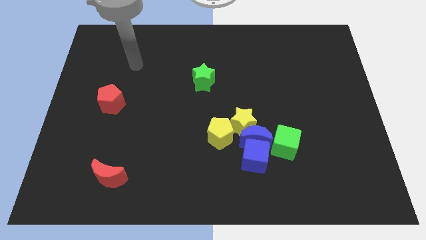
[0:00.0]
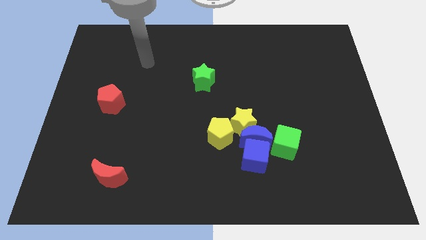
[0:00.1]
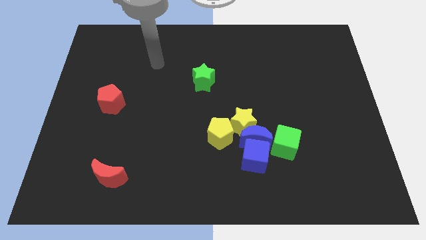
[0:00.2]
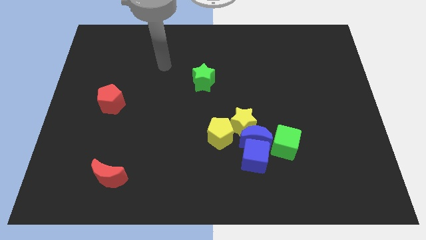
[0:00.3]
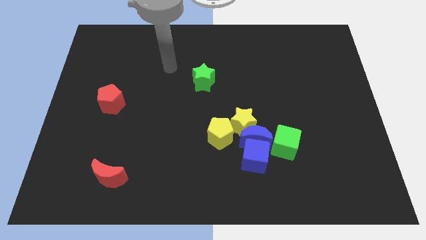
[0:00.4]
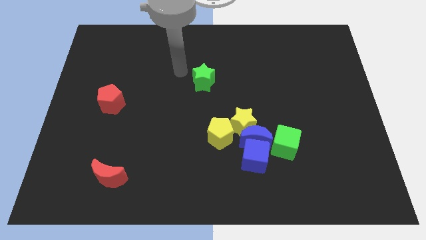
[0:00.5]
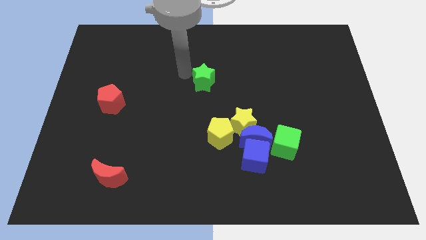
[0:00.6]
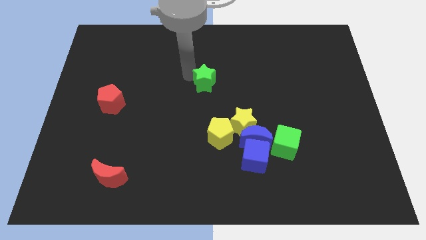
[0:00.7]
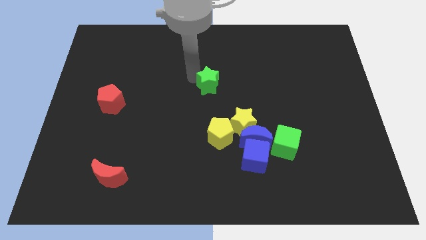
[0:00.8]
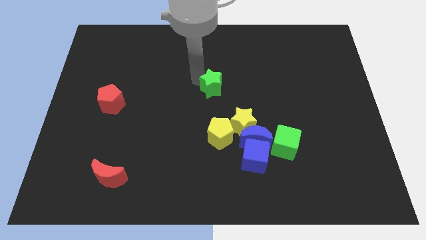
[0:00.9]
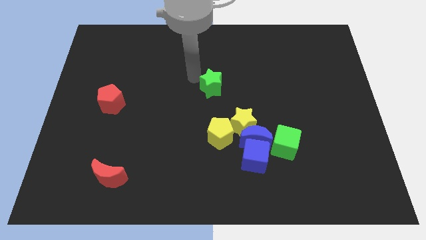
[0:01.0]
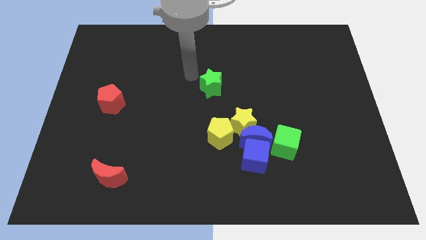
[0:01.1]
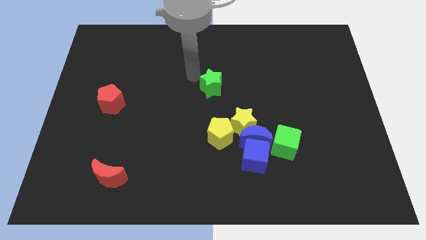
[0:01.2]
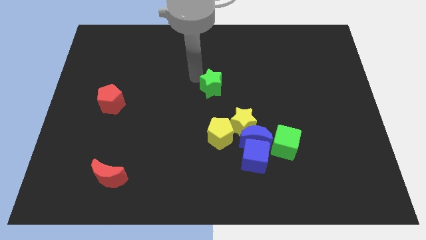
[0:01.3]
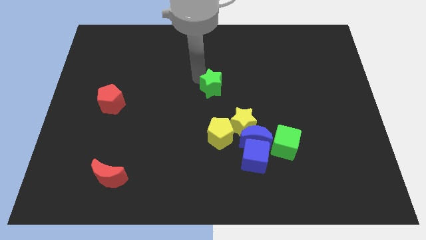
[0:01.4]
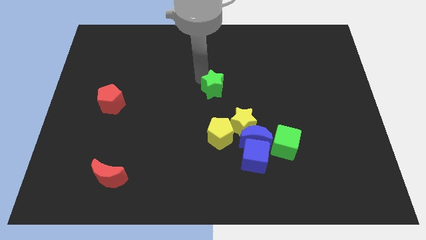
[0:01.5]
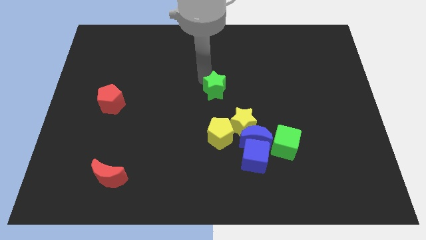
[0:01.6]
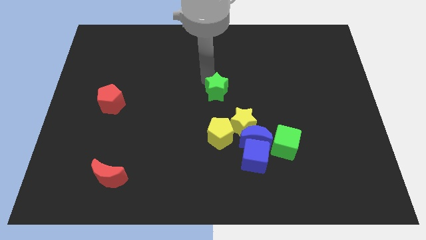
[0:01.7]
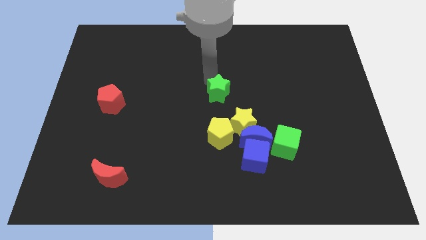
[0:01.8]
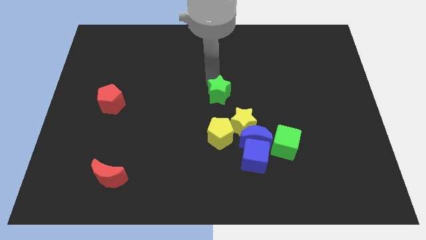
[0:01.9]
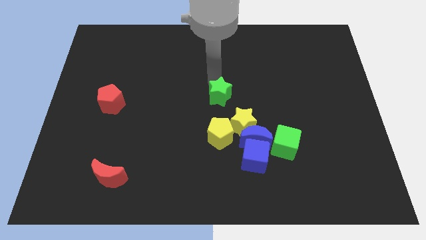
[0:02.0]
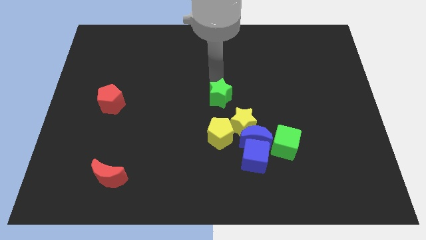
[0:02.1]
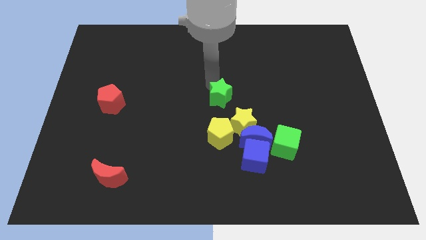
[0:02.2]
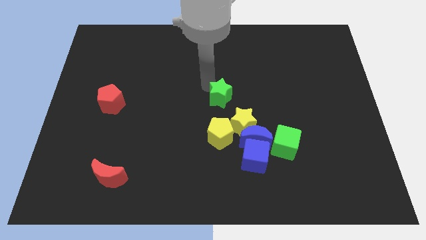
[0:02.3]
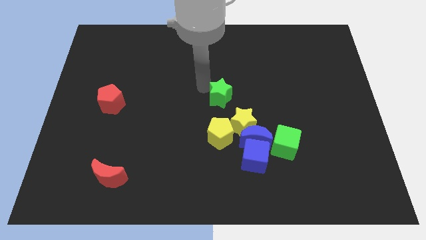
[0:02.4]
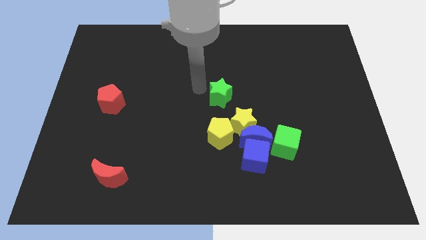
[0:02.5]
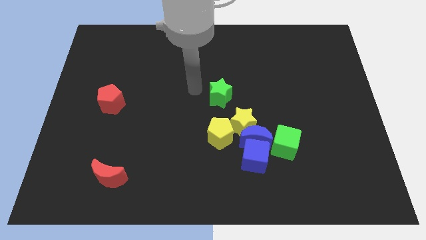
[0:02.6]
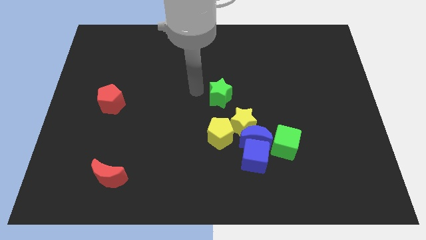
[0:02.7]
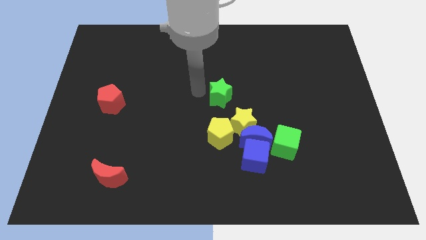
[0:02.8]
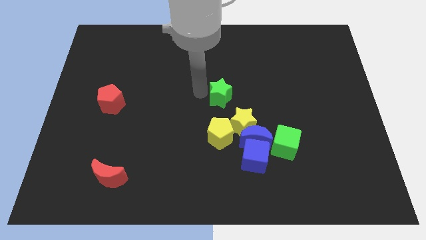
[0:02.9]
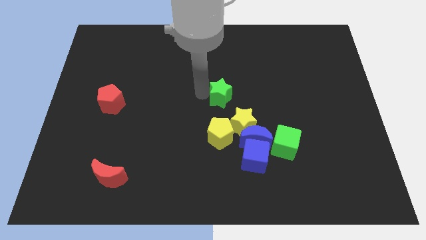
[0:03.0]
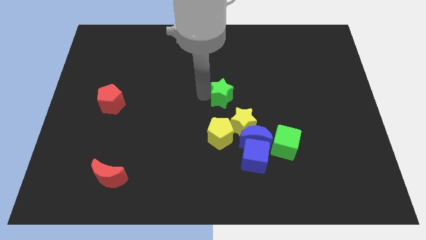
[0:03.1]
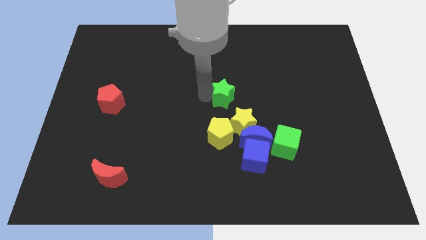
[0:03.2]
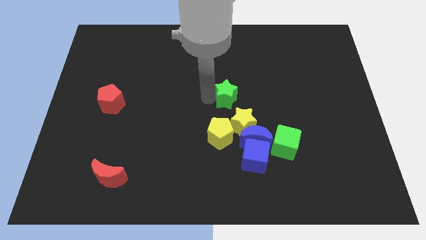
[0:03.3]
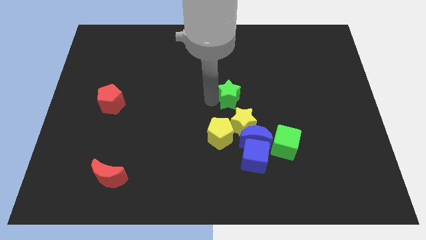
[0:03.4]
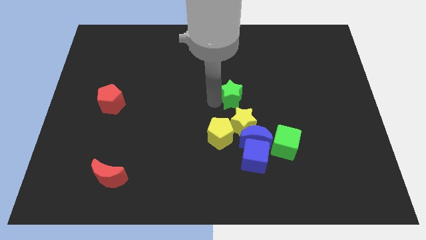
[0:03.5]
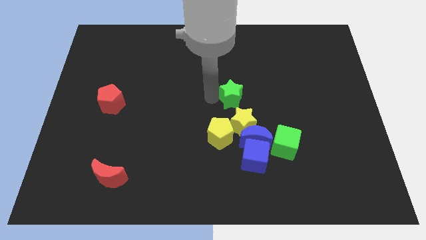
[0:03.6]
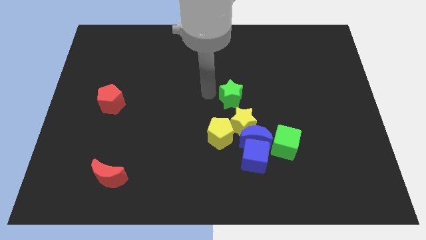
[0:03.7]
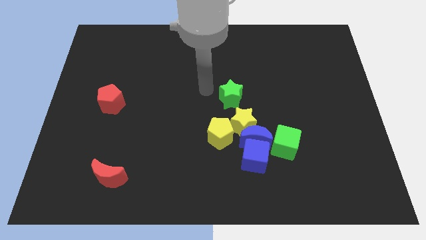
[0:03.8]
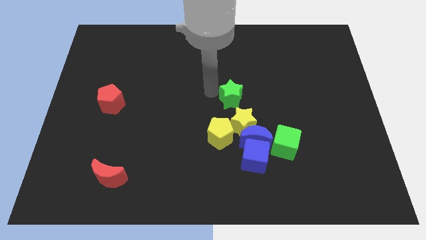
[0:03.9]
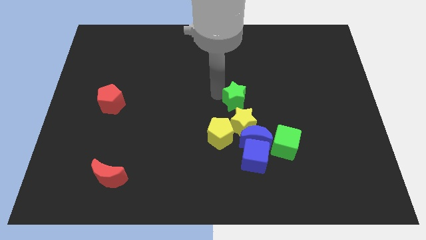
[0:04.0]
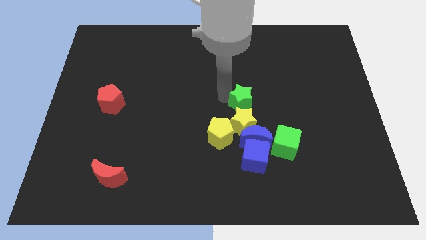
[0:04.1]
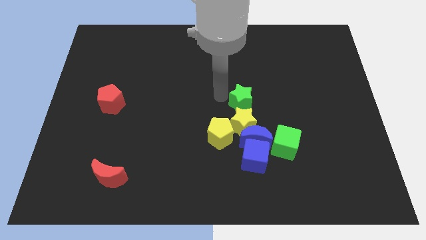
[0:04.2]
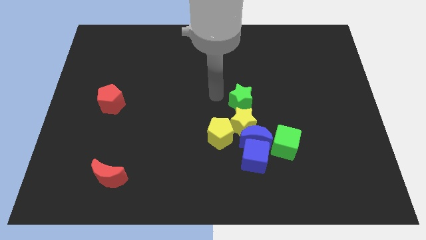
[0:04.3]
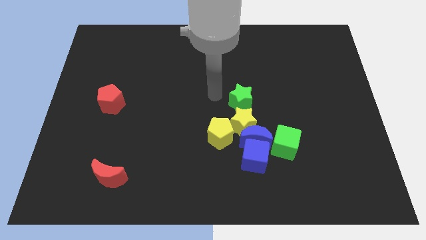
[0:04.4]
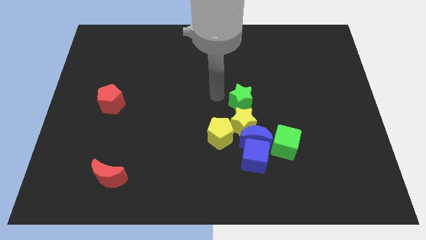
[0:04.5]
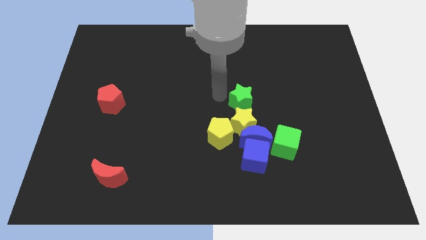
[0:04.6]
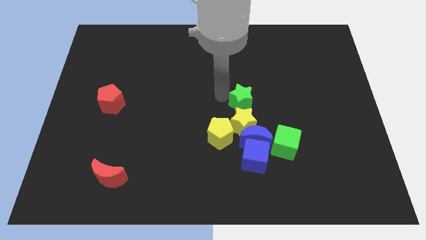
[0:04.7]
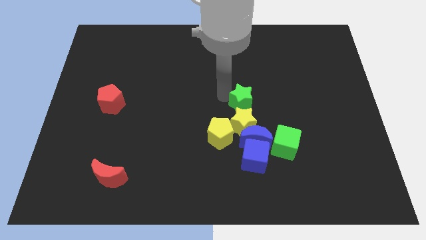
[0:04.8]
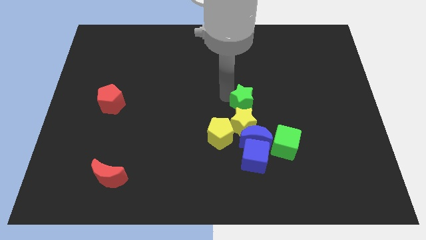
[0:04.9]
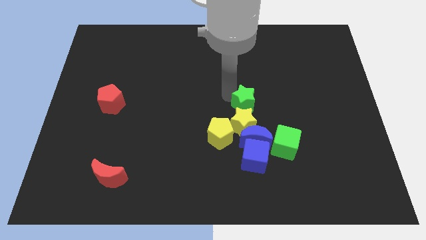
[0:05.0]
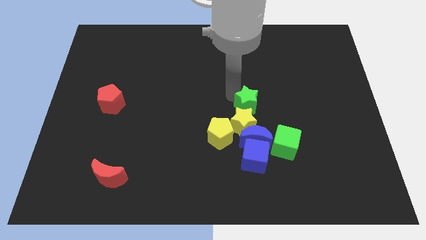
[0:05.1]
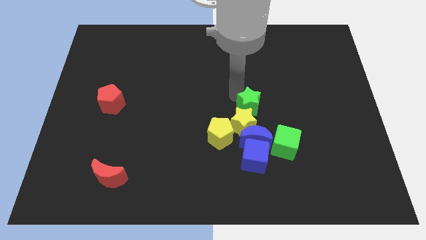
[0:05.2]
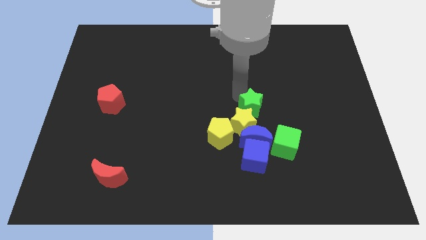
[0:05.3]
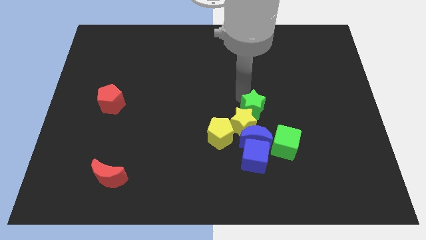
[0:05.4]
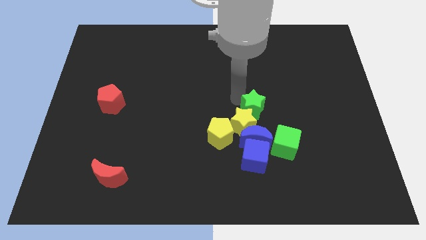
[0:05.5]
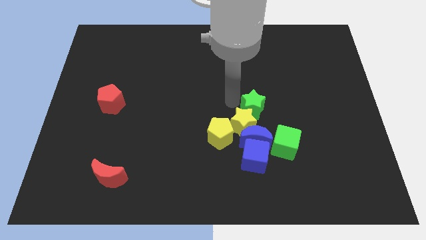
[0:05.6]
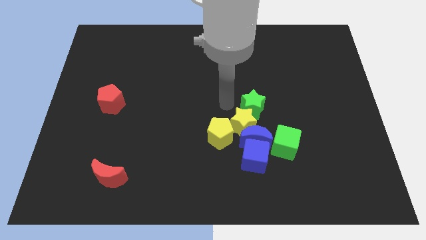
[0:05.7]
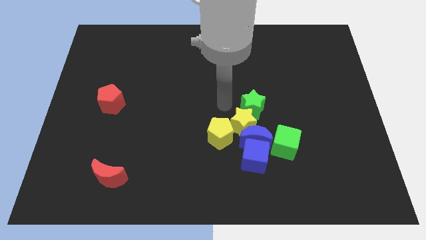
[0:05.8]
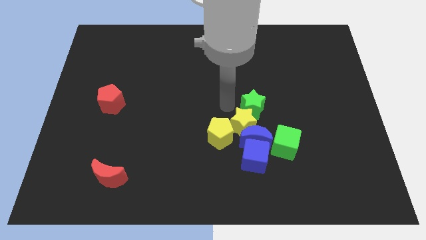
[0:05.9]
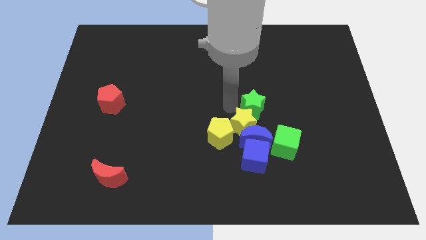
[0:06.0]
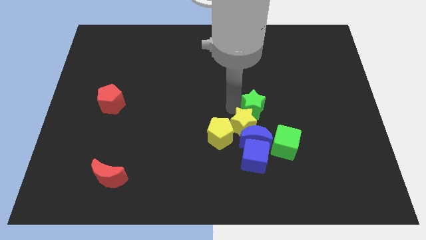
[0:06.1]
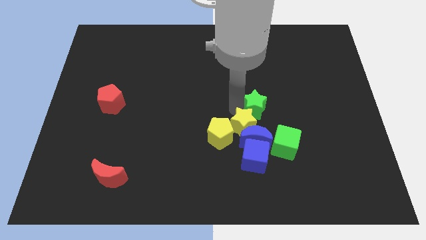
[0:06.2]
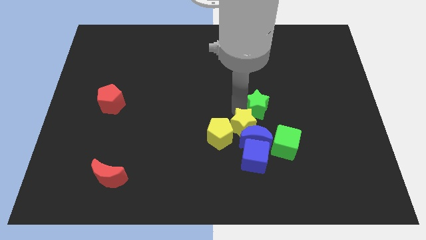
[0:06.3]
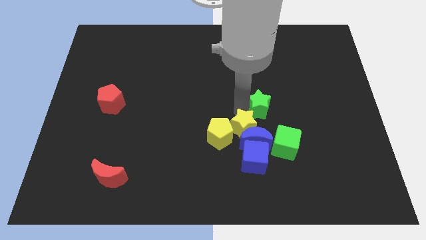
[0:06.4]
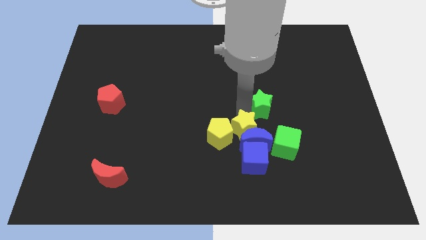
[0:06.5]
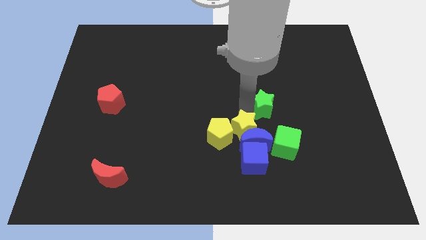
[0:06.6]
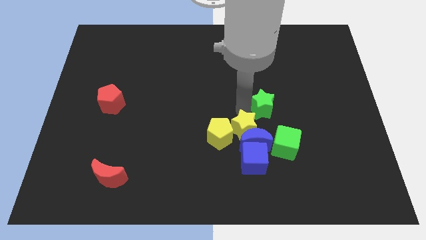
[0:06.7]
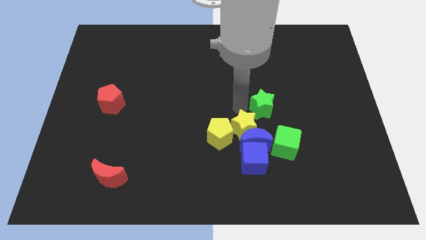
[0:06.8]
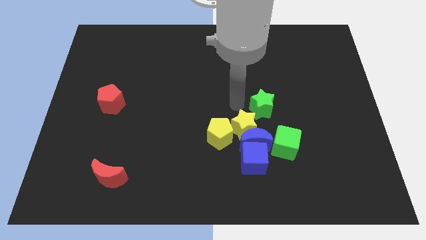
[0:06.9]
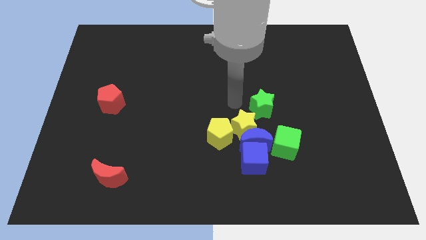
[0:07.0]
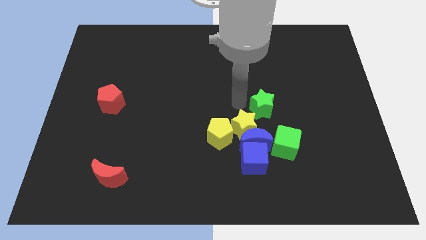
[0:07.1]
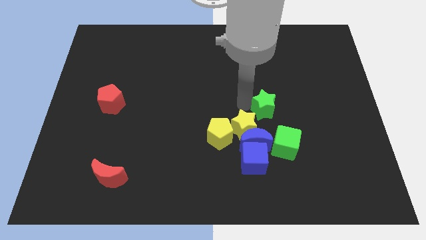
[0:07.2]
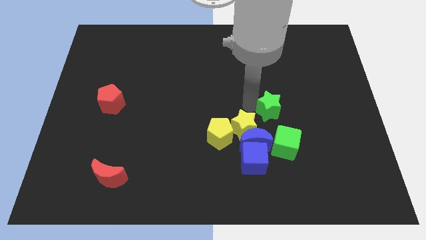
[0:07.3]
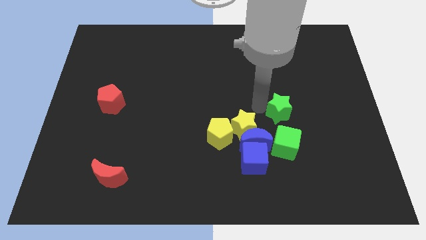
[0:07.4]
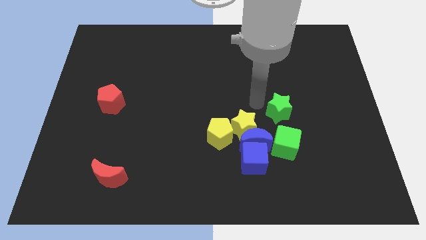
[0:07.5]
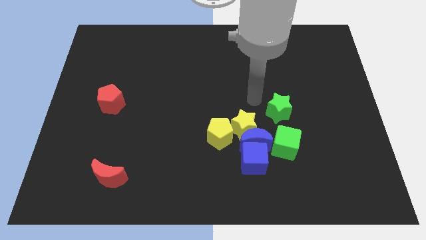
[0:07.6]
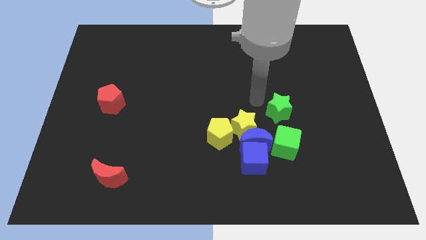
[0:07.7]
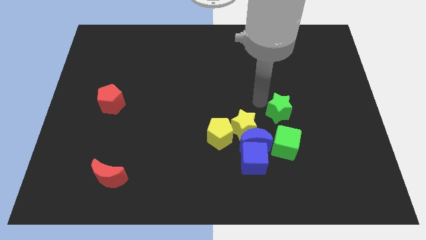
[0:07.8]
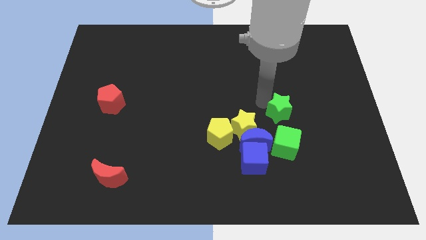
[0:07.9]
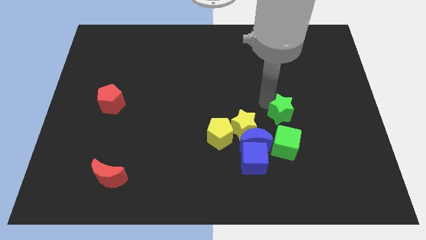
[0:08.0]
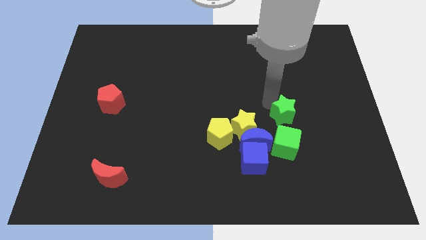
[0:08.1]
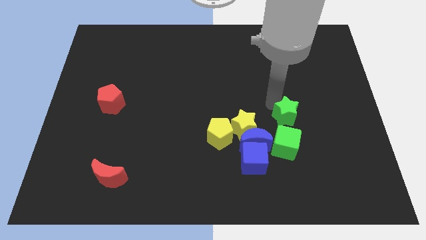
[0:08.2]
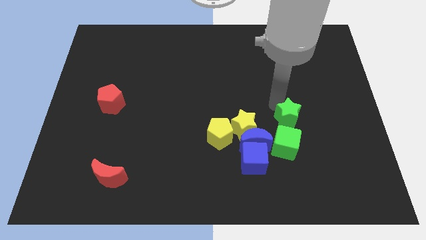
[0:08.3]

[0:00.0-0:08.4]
push the green star to the top right side of the green cube
